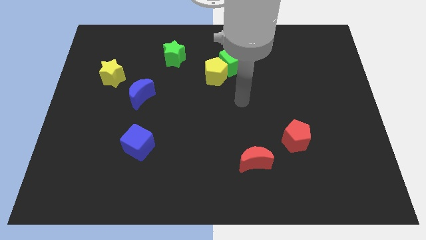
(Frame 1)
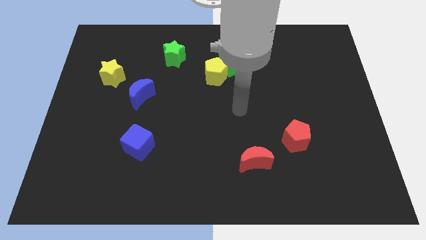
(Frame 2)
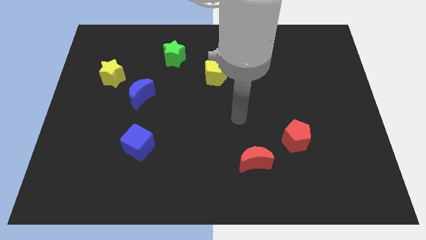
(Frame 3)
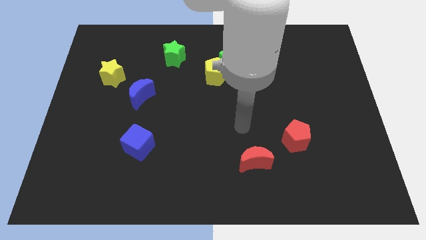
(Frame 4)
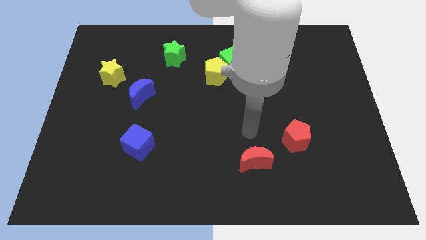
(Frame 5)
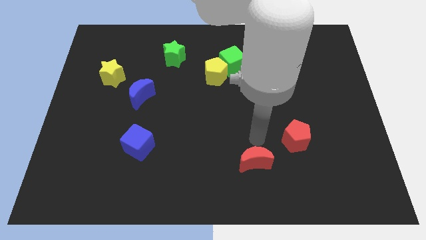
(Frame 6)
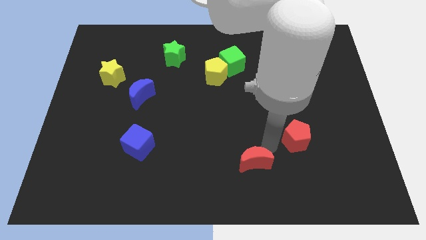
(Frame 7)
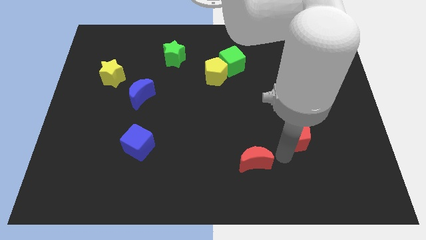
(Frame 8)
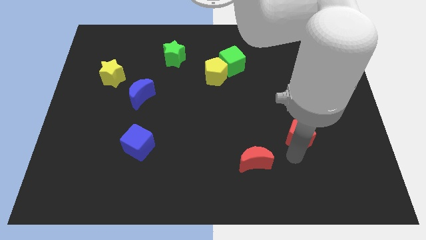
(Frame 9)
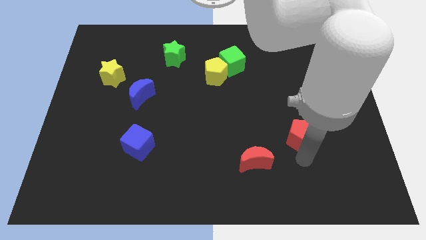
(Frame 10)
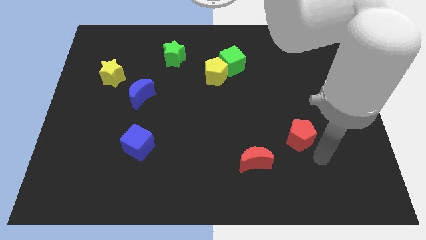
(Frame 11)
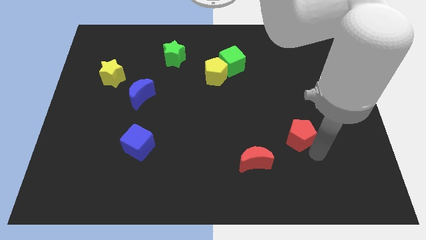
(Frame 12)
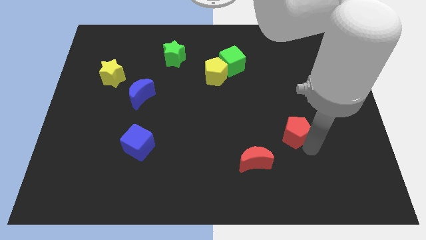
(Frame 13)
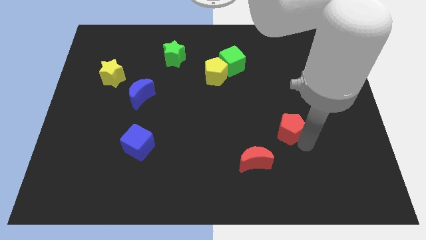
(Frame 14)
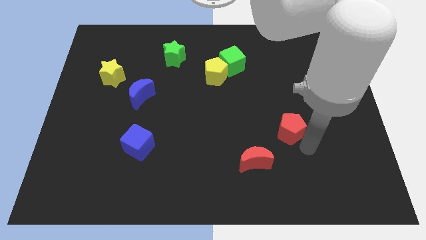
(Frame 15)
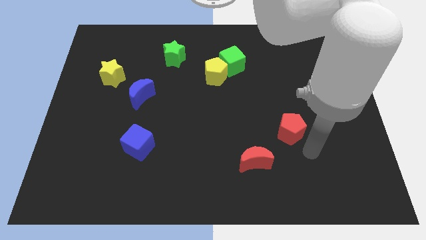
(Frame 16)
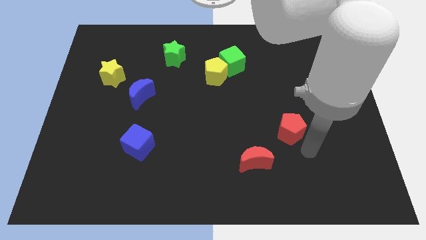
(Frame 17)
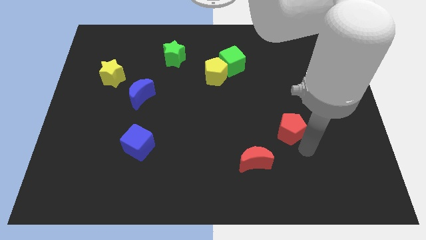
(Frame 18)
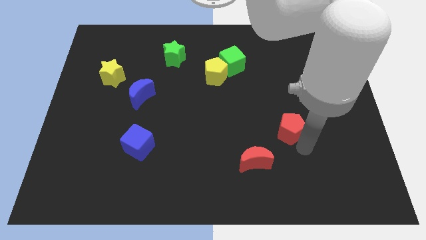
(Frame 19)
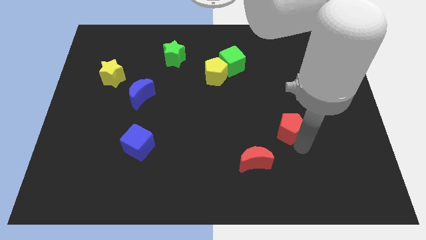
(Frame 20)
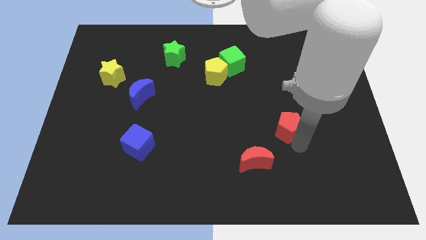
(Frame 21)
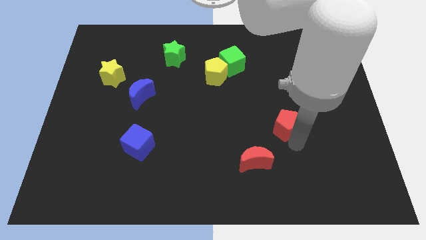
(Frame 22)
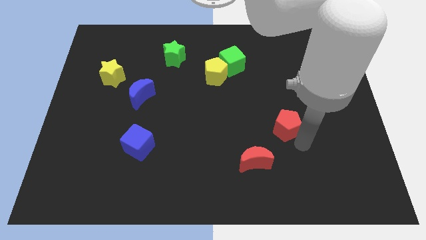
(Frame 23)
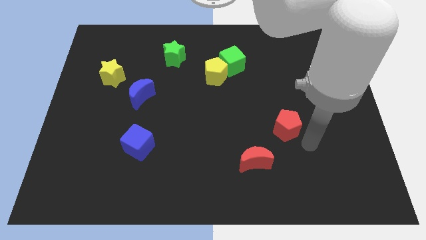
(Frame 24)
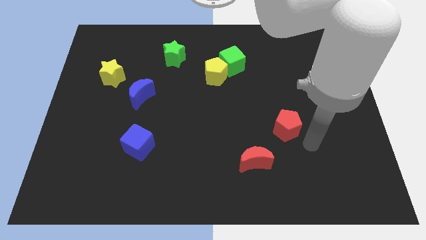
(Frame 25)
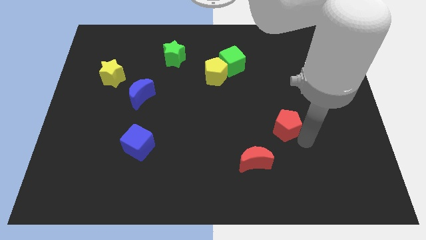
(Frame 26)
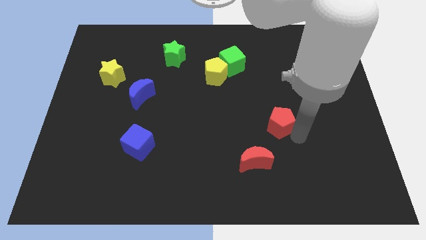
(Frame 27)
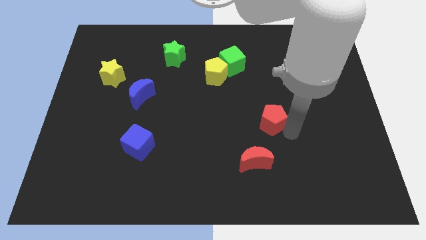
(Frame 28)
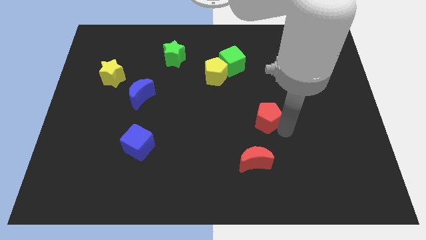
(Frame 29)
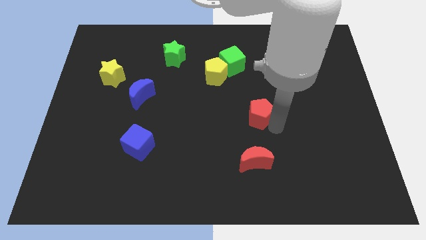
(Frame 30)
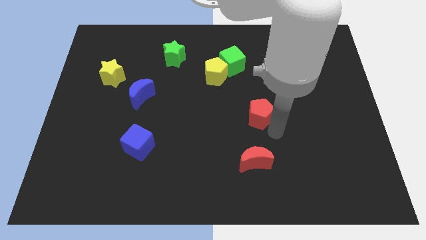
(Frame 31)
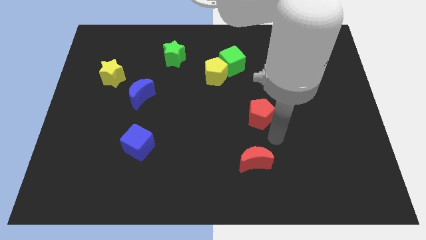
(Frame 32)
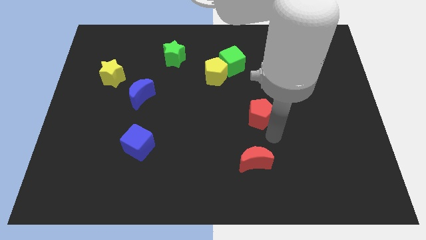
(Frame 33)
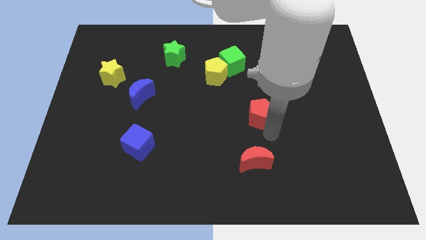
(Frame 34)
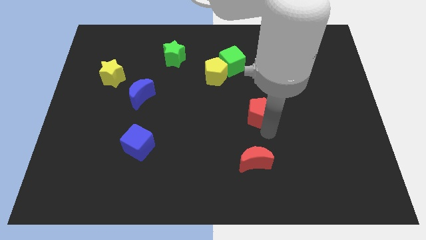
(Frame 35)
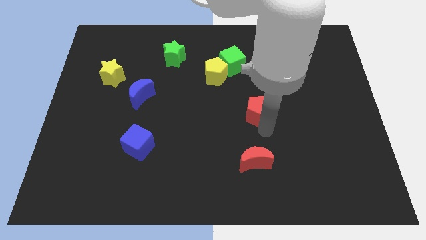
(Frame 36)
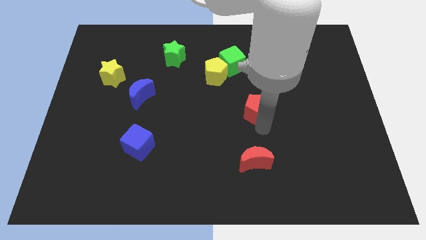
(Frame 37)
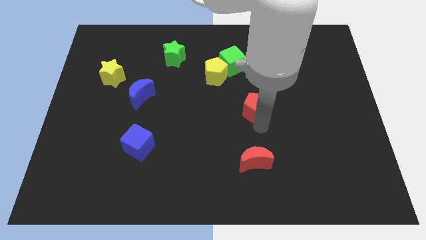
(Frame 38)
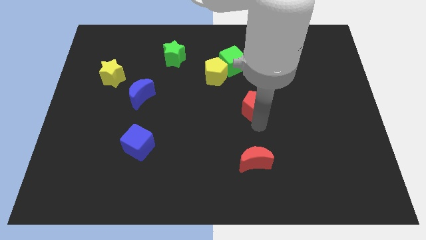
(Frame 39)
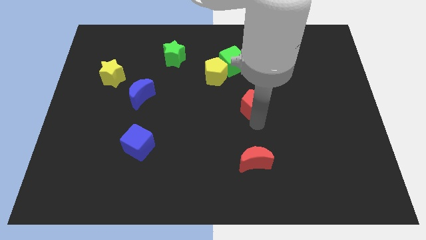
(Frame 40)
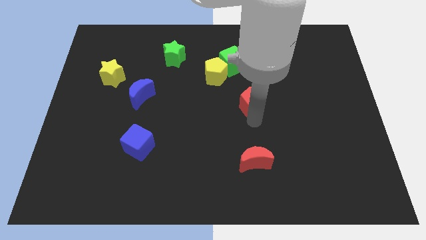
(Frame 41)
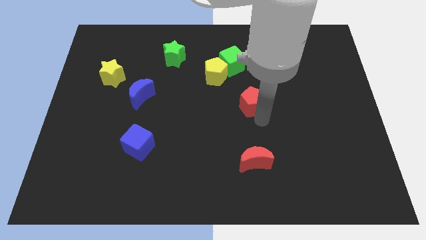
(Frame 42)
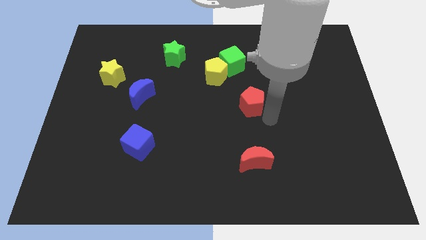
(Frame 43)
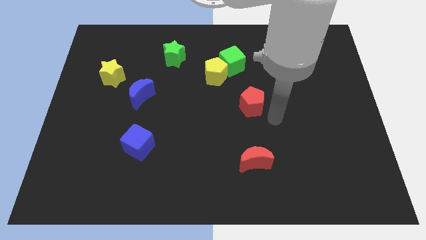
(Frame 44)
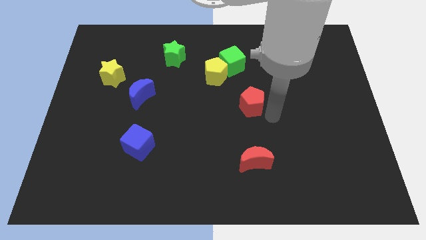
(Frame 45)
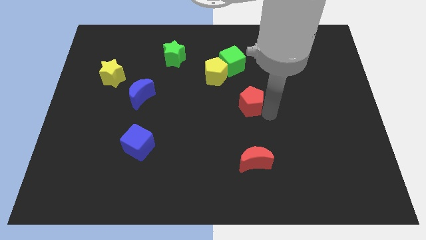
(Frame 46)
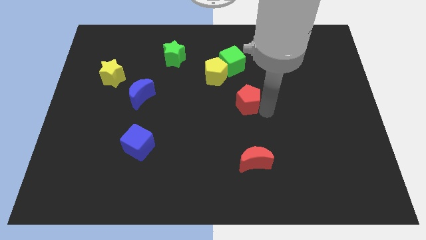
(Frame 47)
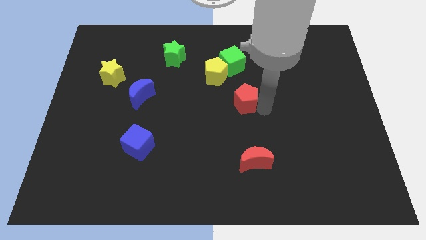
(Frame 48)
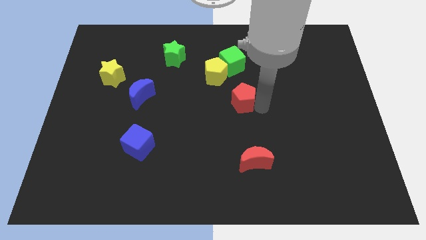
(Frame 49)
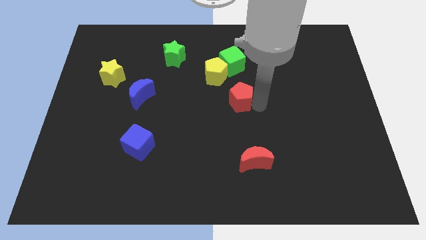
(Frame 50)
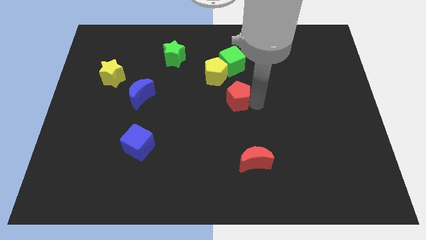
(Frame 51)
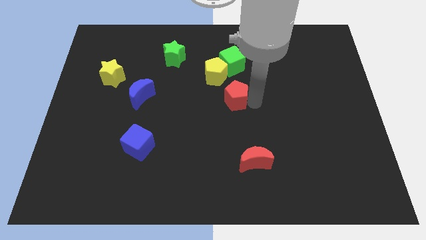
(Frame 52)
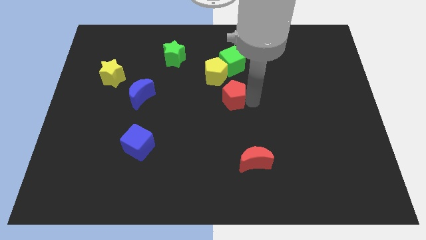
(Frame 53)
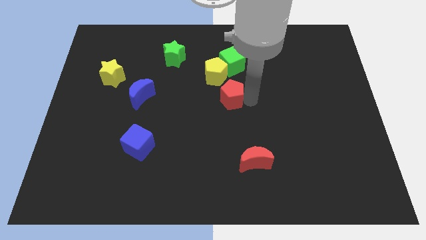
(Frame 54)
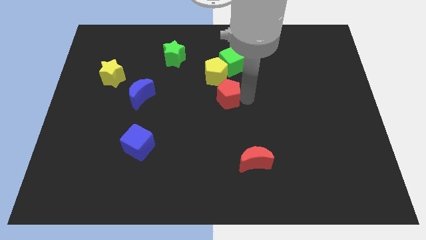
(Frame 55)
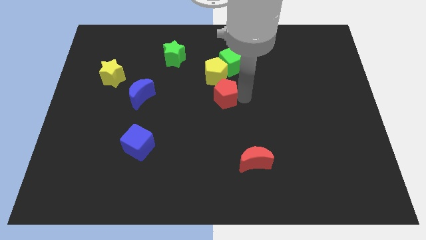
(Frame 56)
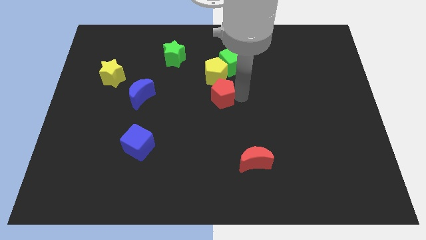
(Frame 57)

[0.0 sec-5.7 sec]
move the red pentagon upwards and to the left

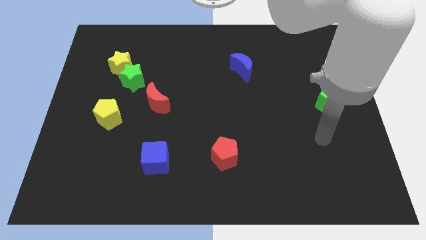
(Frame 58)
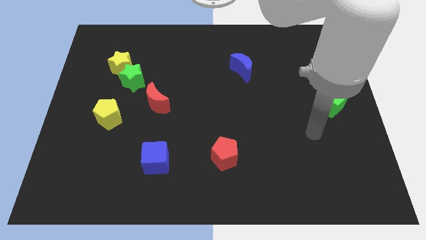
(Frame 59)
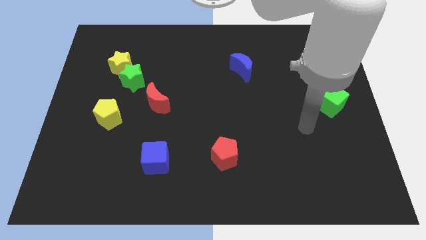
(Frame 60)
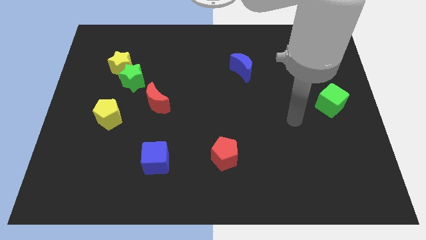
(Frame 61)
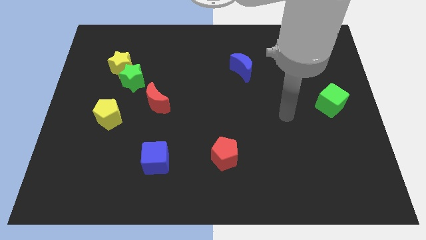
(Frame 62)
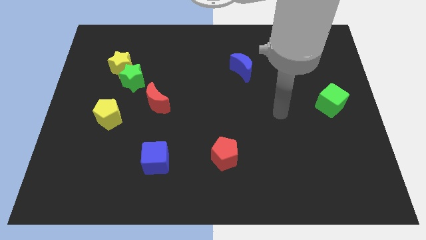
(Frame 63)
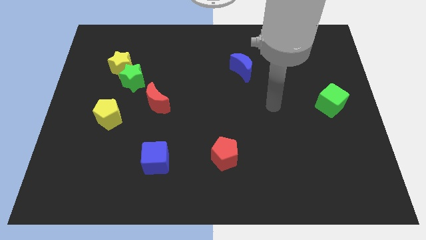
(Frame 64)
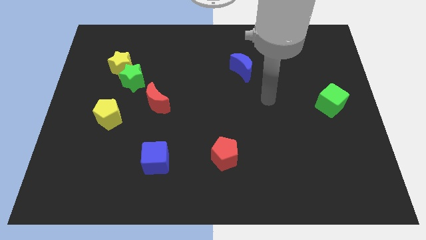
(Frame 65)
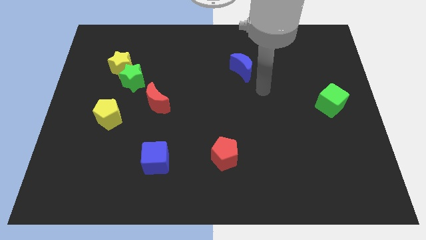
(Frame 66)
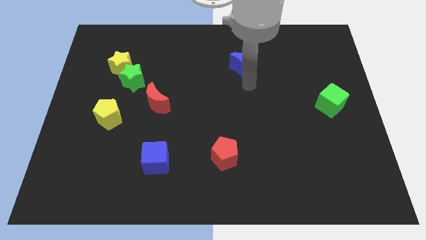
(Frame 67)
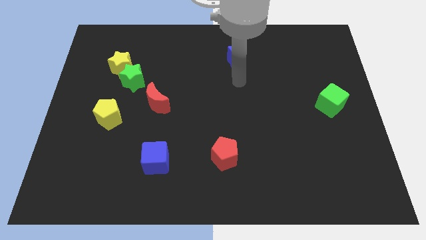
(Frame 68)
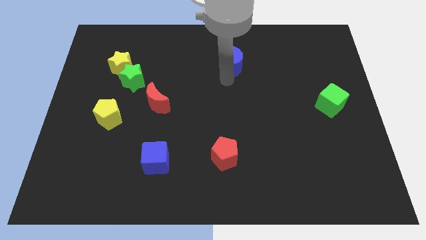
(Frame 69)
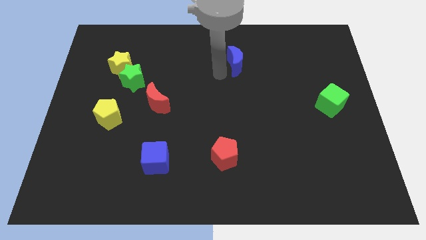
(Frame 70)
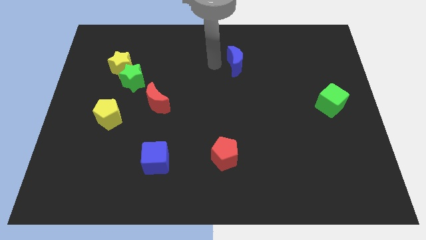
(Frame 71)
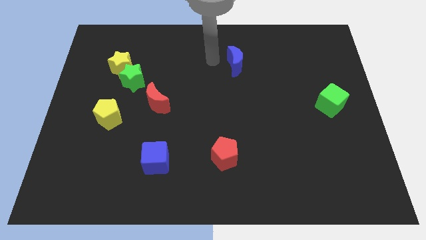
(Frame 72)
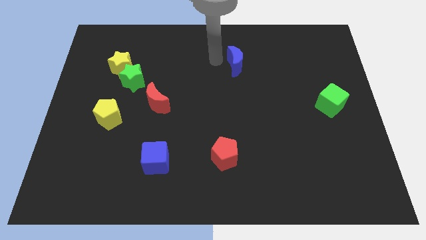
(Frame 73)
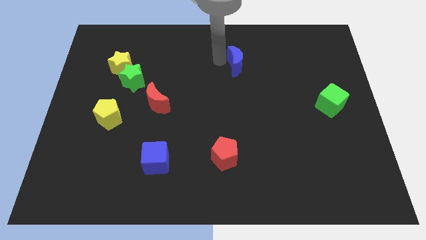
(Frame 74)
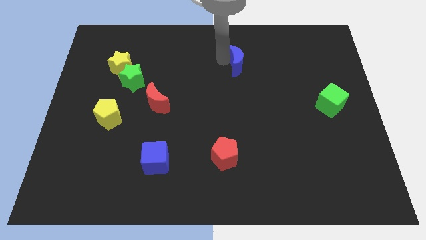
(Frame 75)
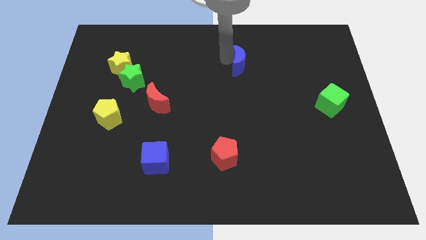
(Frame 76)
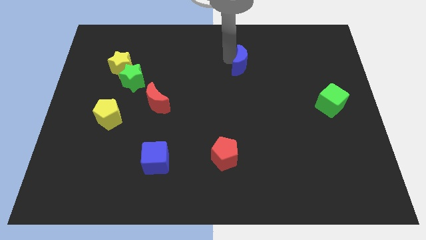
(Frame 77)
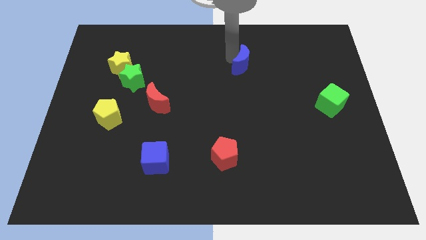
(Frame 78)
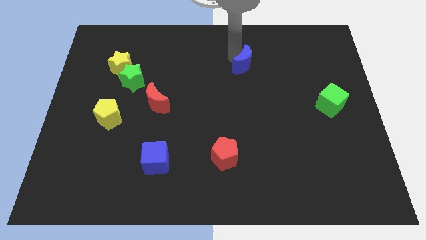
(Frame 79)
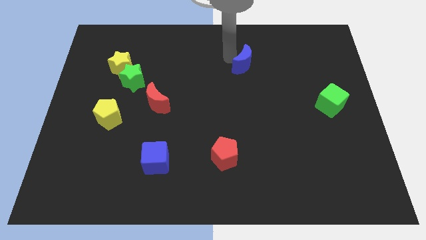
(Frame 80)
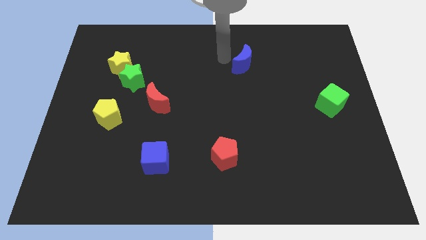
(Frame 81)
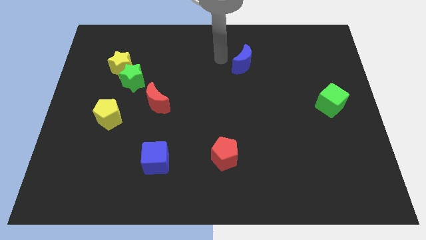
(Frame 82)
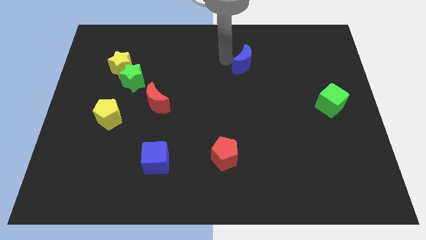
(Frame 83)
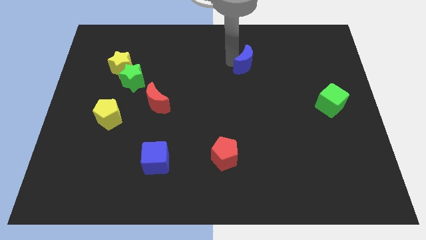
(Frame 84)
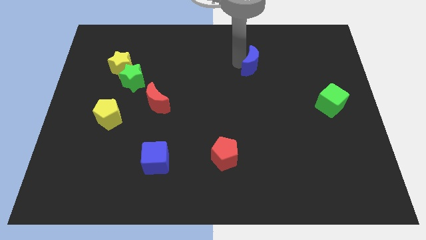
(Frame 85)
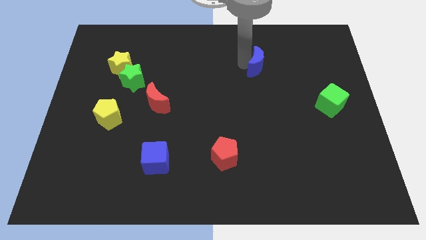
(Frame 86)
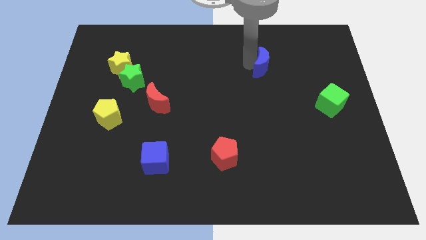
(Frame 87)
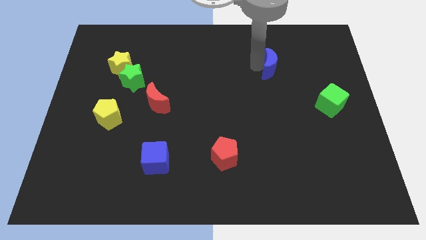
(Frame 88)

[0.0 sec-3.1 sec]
slightly push the blue moon to the right
